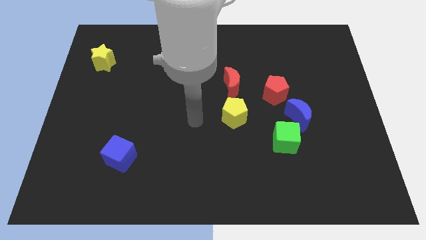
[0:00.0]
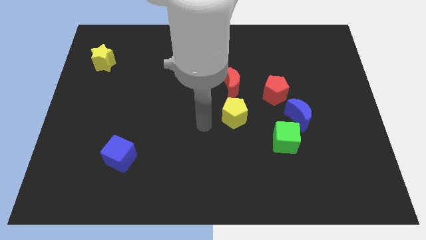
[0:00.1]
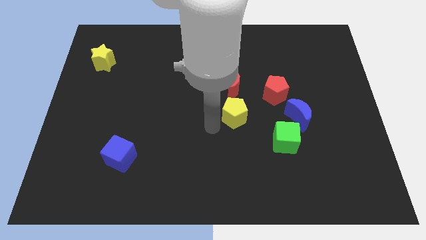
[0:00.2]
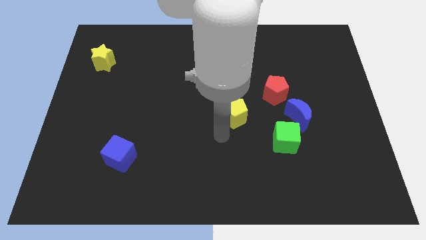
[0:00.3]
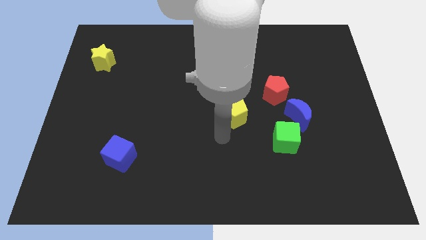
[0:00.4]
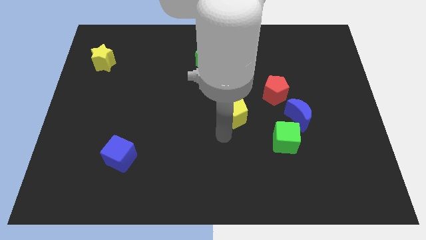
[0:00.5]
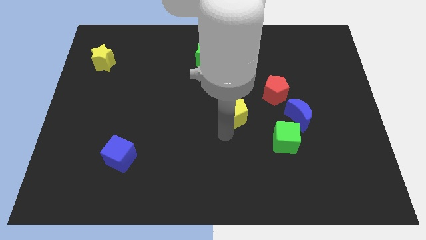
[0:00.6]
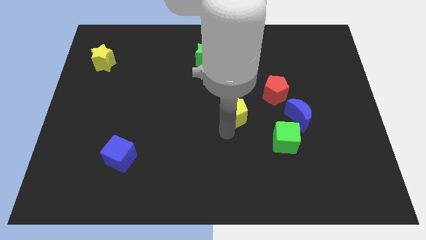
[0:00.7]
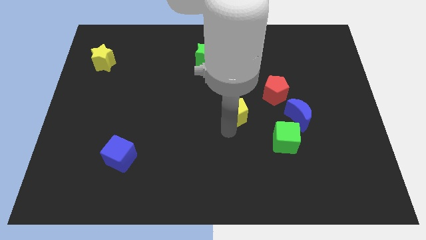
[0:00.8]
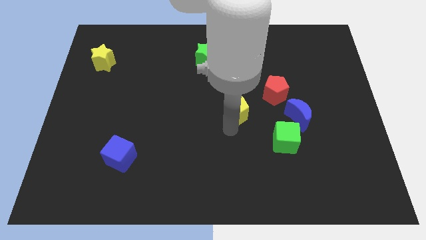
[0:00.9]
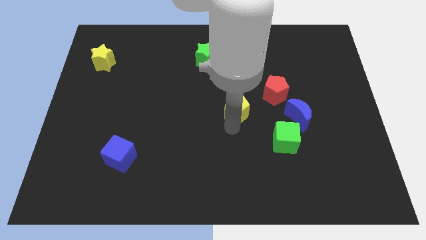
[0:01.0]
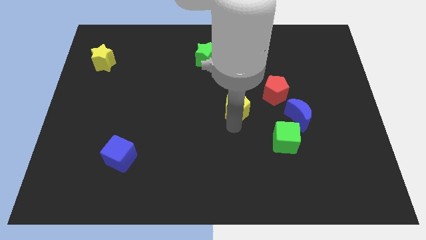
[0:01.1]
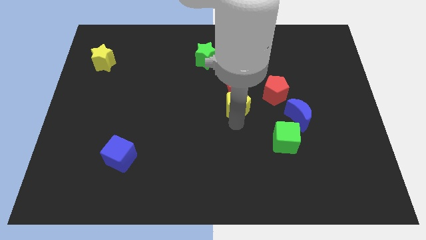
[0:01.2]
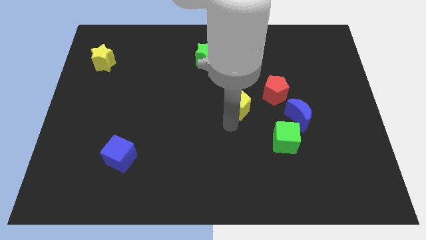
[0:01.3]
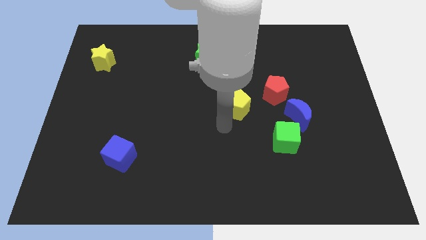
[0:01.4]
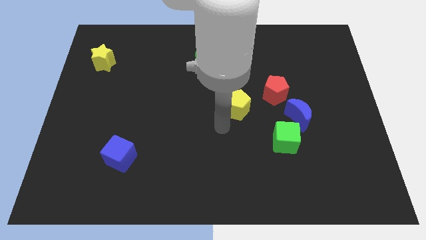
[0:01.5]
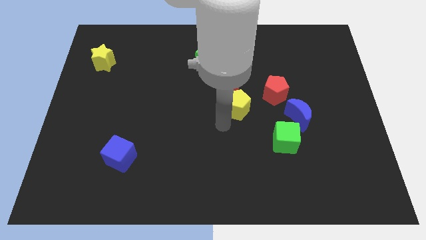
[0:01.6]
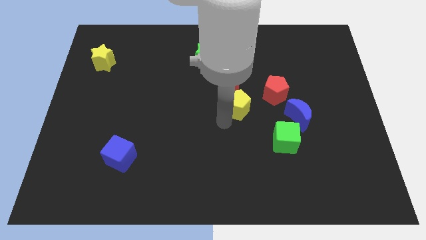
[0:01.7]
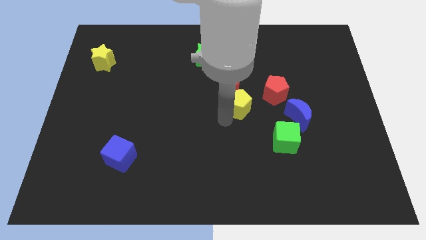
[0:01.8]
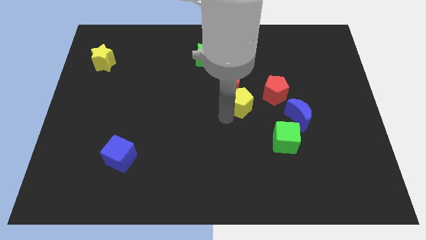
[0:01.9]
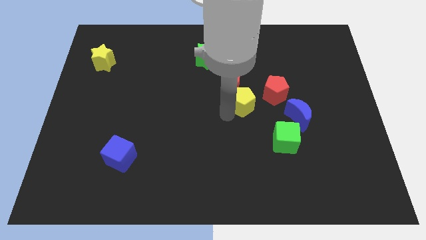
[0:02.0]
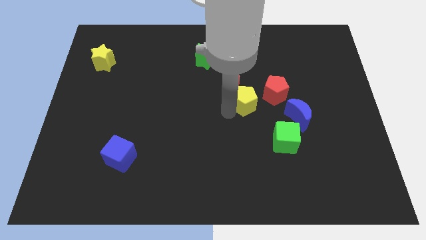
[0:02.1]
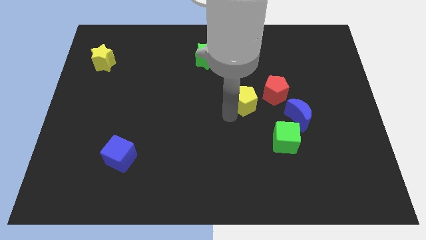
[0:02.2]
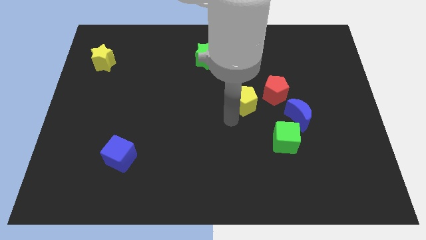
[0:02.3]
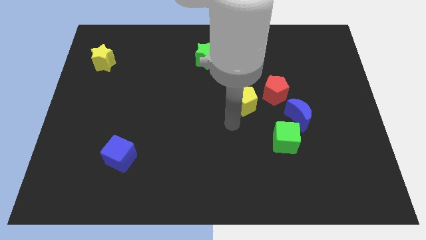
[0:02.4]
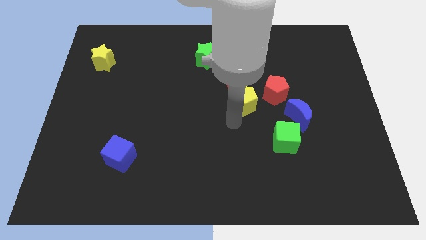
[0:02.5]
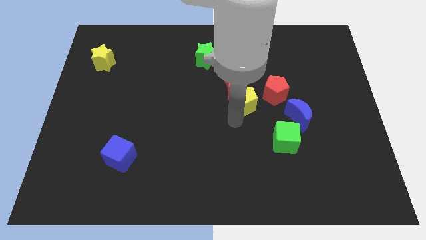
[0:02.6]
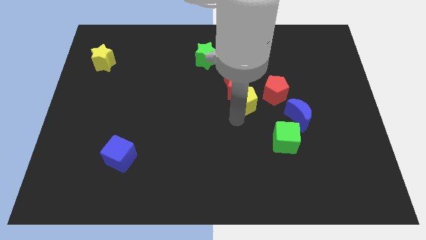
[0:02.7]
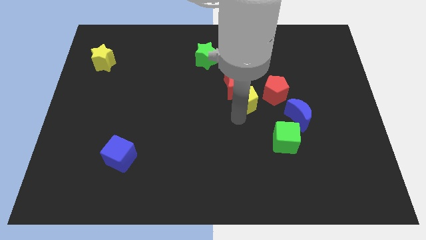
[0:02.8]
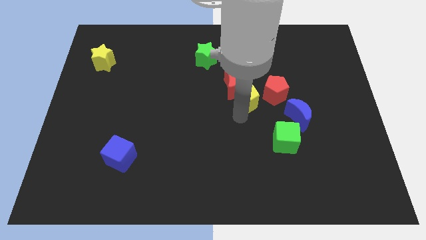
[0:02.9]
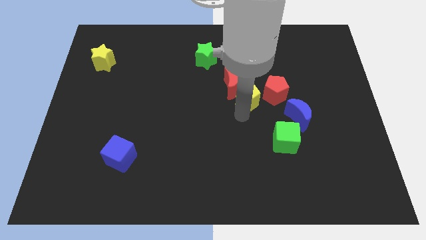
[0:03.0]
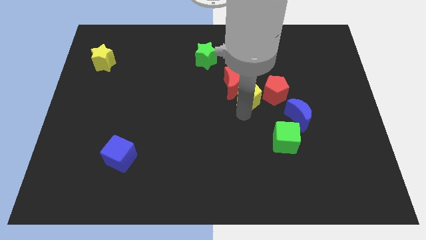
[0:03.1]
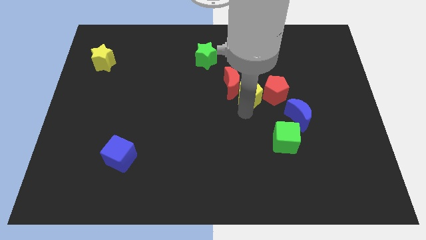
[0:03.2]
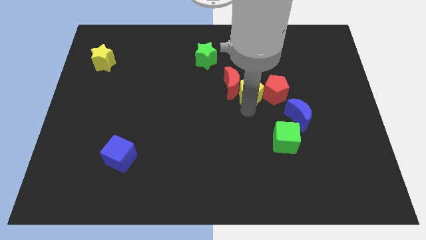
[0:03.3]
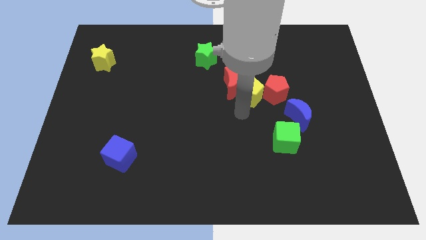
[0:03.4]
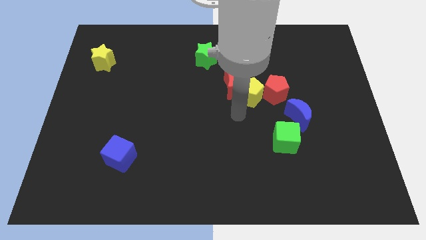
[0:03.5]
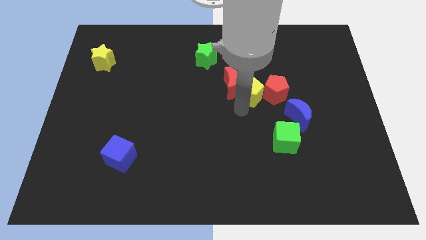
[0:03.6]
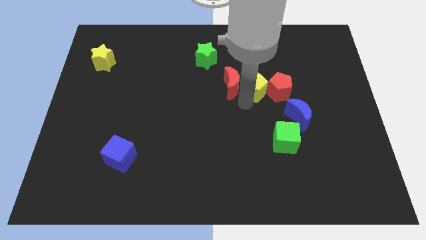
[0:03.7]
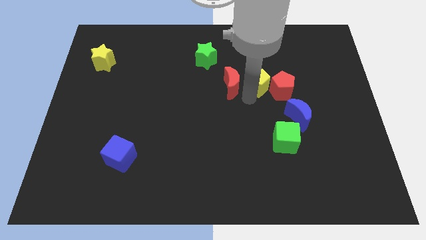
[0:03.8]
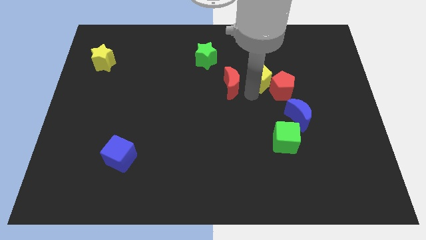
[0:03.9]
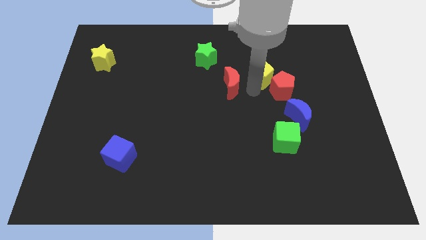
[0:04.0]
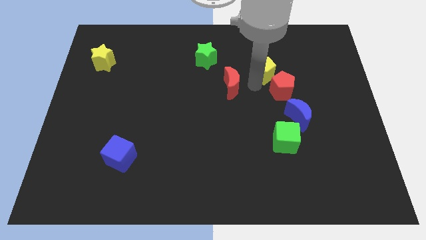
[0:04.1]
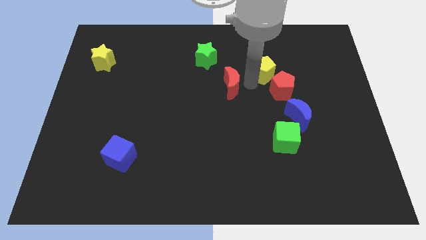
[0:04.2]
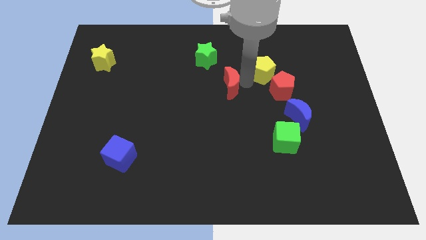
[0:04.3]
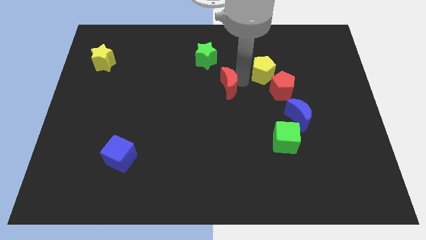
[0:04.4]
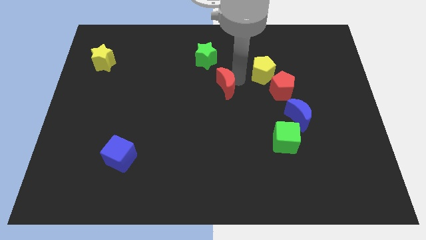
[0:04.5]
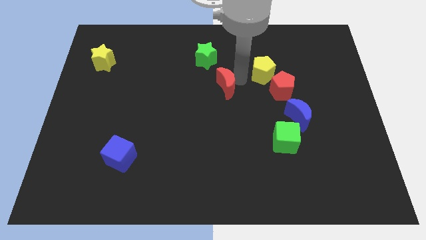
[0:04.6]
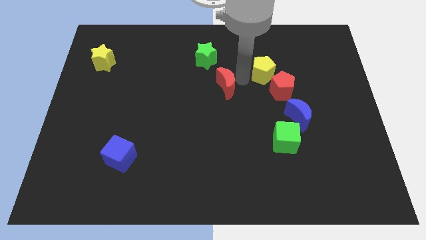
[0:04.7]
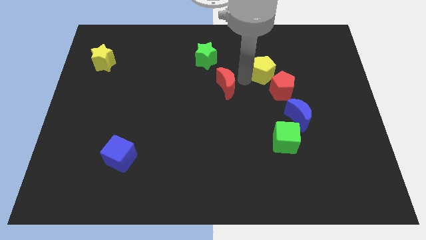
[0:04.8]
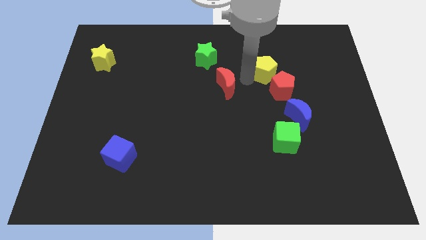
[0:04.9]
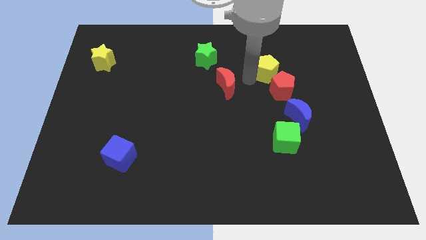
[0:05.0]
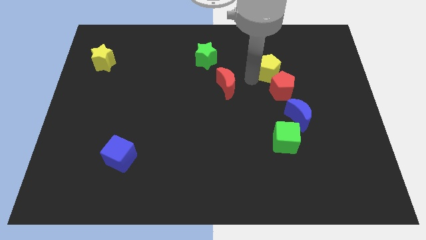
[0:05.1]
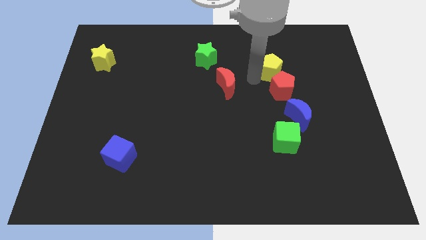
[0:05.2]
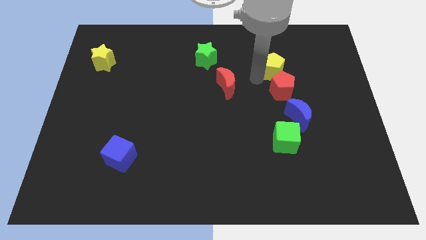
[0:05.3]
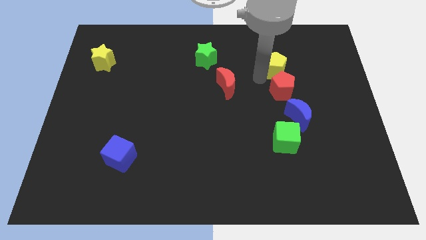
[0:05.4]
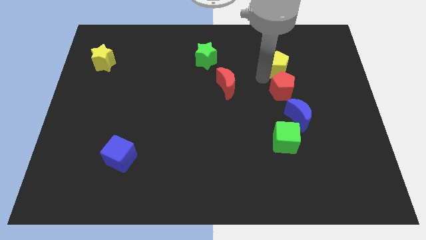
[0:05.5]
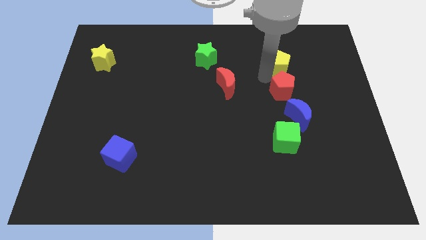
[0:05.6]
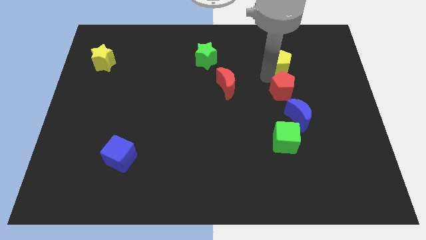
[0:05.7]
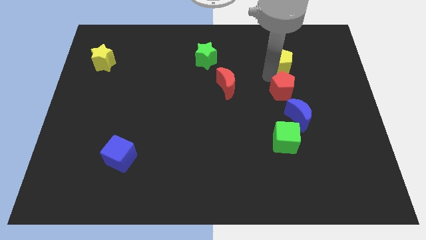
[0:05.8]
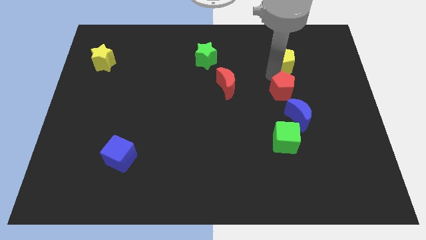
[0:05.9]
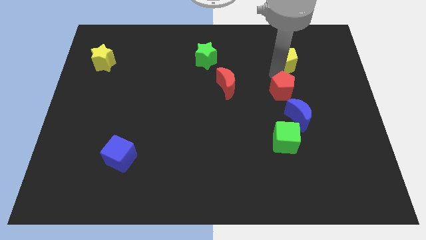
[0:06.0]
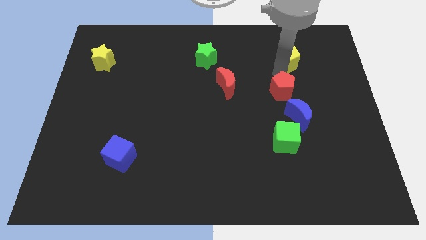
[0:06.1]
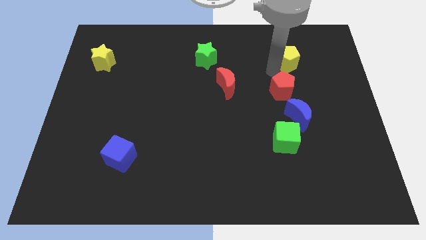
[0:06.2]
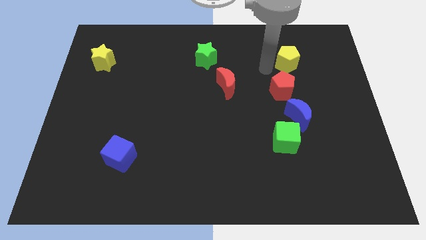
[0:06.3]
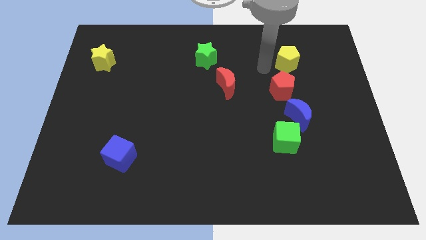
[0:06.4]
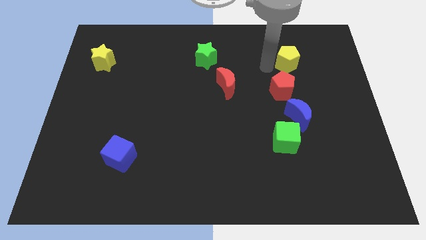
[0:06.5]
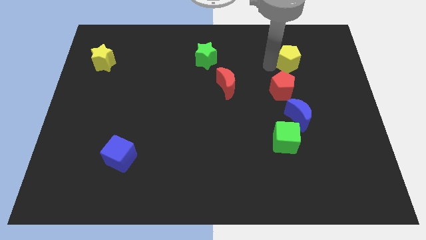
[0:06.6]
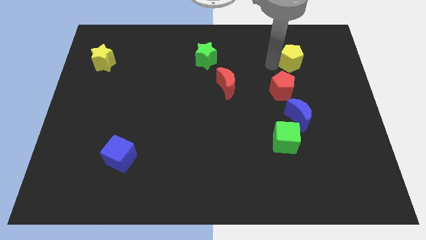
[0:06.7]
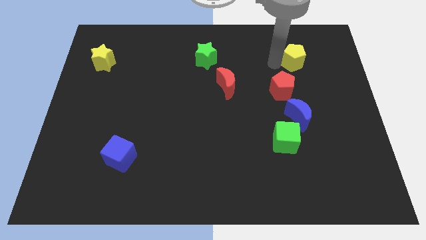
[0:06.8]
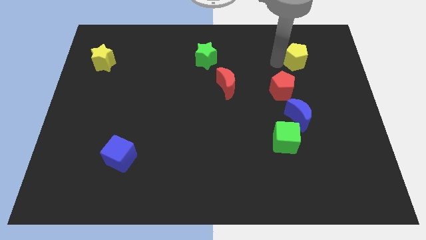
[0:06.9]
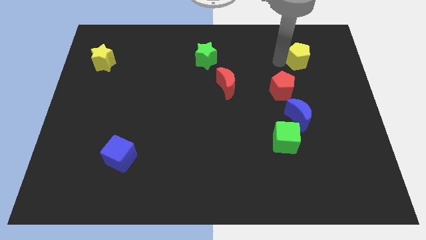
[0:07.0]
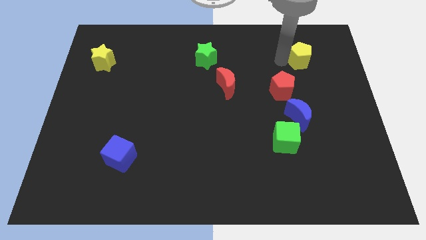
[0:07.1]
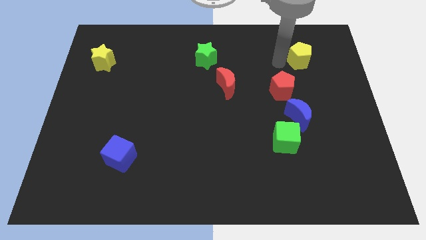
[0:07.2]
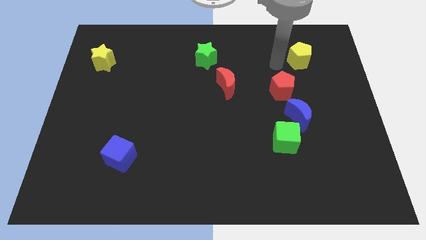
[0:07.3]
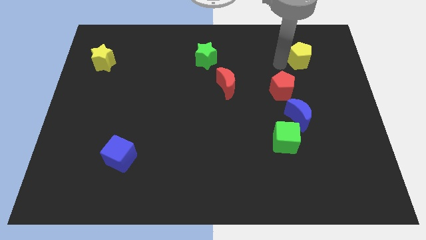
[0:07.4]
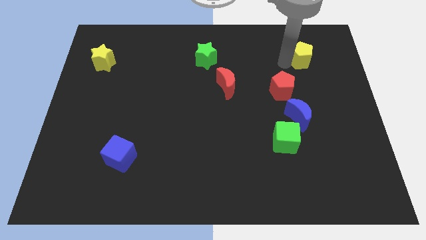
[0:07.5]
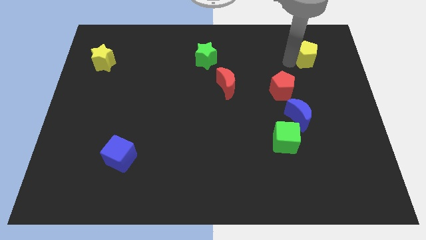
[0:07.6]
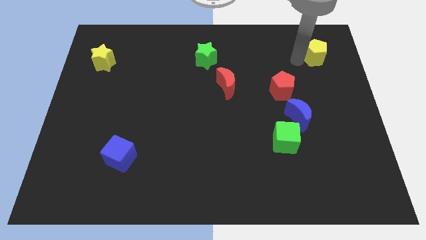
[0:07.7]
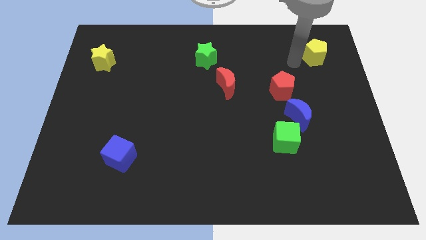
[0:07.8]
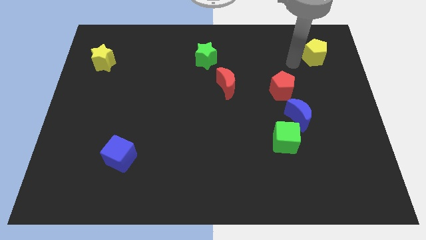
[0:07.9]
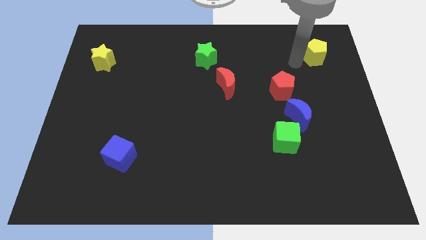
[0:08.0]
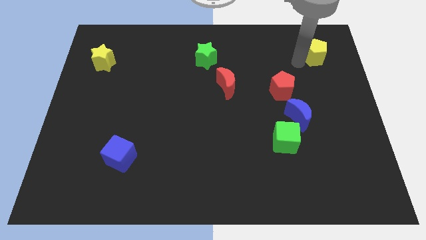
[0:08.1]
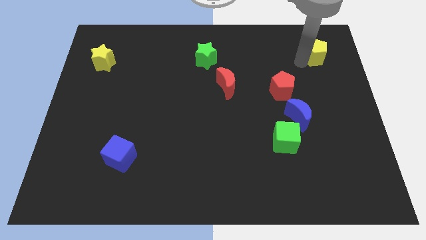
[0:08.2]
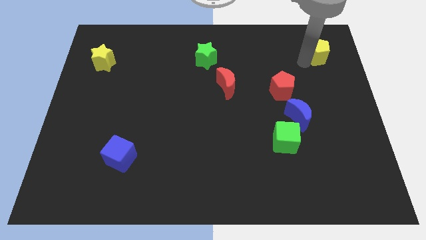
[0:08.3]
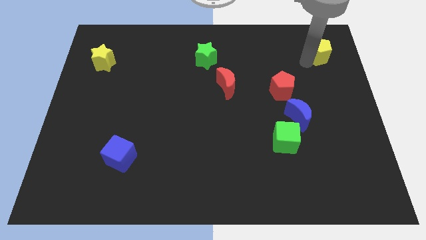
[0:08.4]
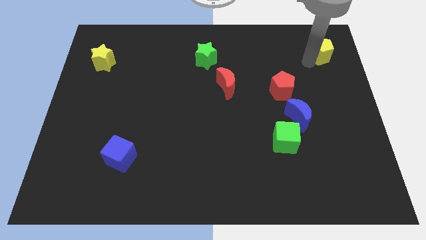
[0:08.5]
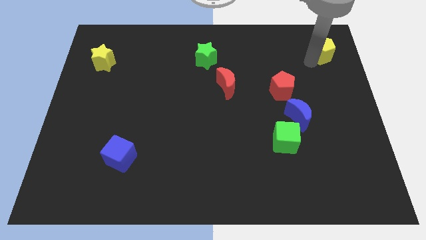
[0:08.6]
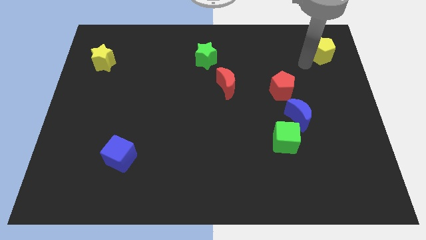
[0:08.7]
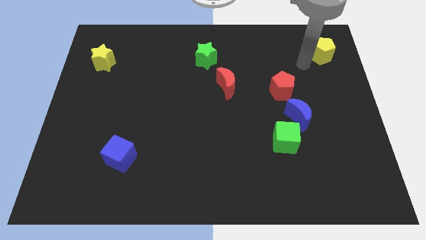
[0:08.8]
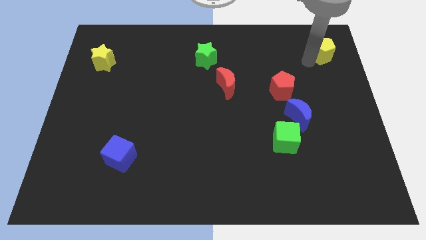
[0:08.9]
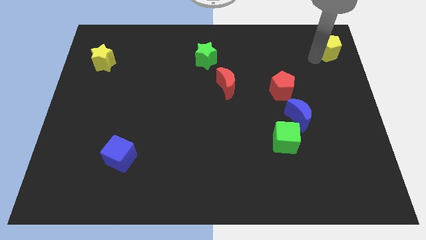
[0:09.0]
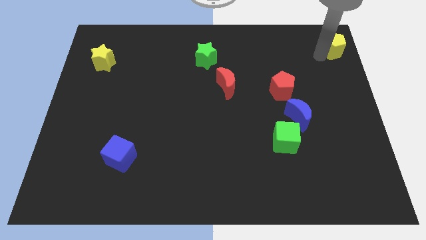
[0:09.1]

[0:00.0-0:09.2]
put the yellow pentagon to the upper right corner
